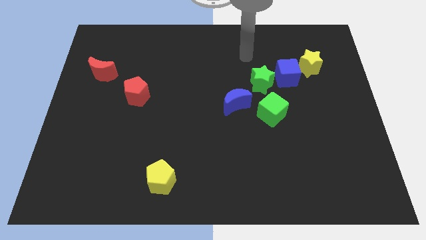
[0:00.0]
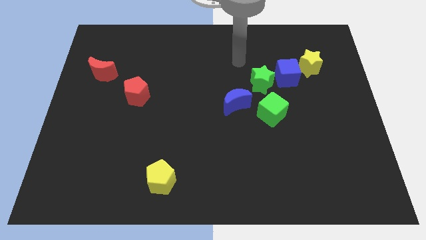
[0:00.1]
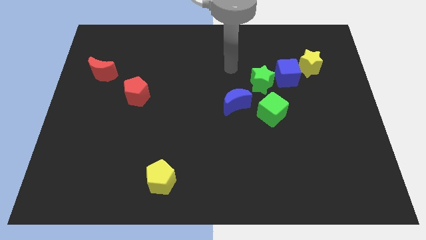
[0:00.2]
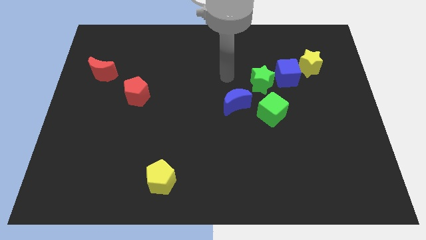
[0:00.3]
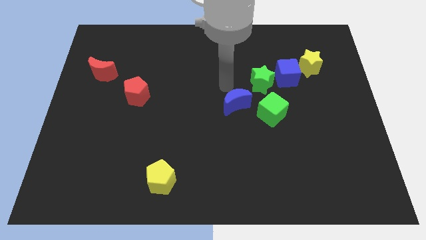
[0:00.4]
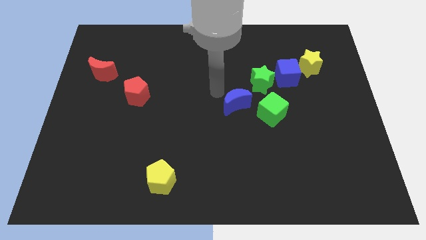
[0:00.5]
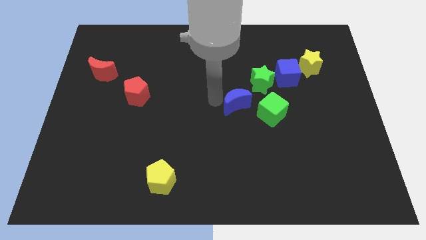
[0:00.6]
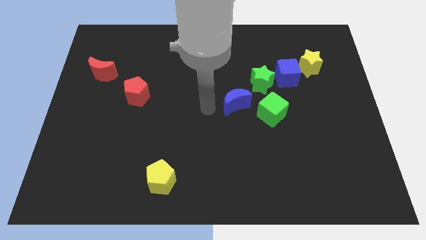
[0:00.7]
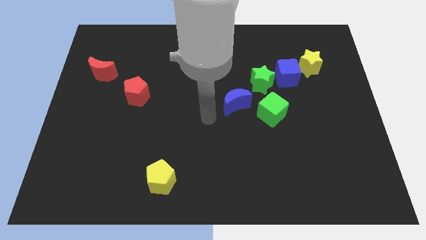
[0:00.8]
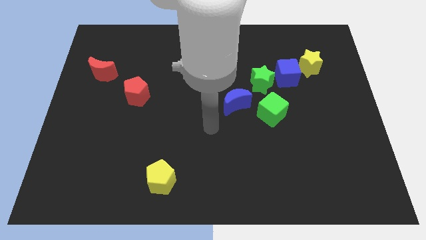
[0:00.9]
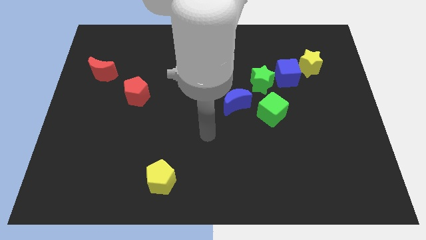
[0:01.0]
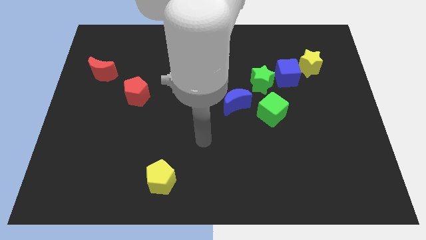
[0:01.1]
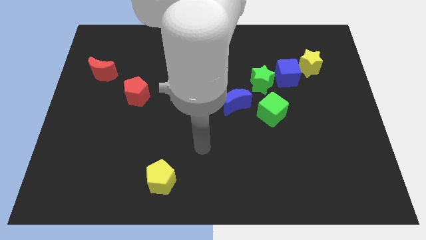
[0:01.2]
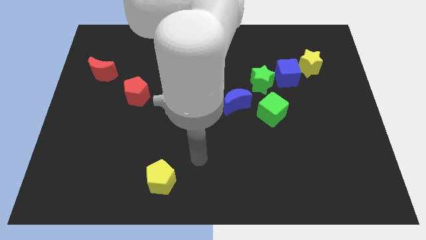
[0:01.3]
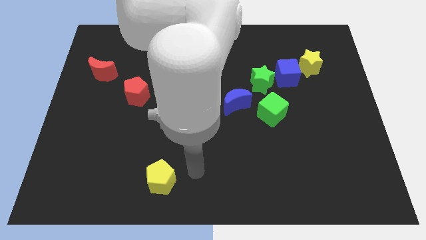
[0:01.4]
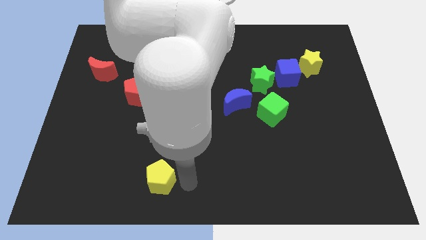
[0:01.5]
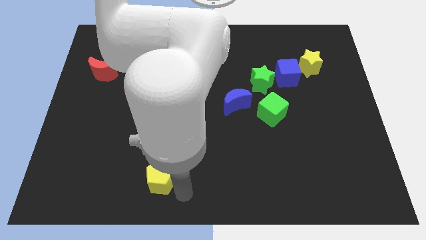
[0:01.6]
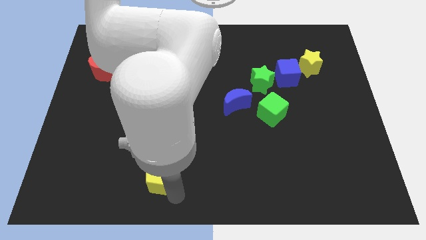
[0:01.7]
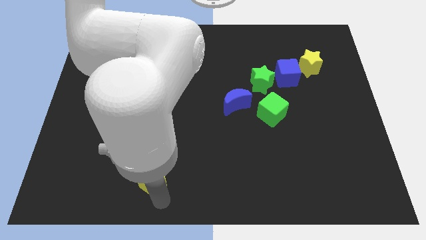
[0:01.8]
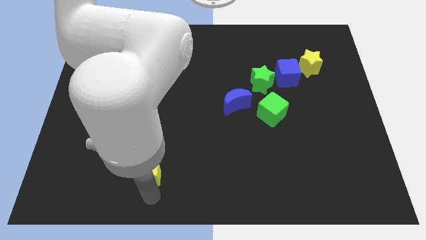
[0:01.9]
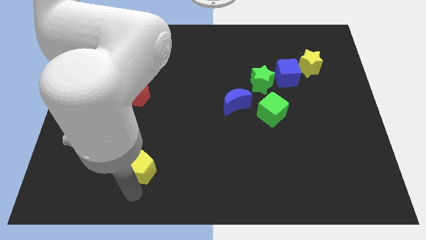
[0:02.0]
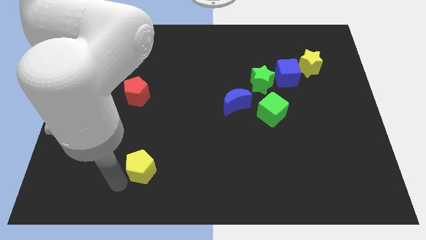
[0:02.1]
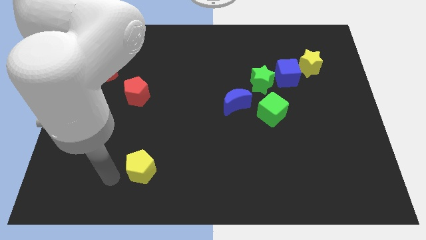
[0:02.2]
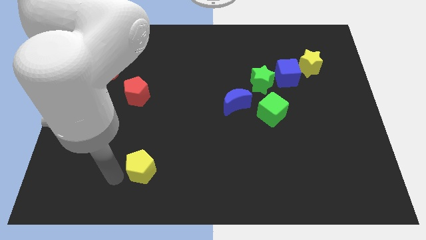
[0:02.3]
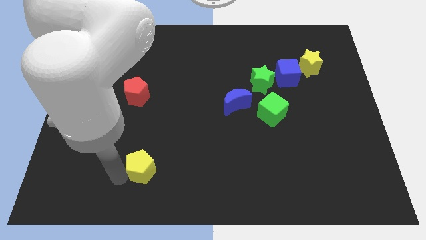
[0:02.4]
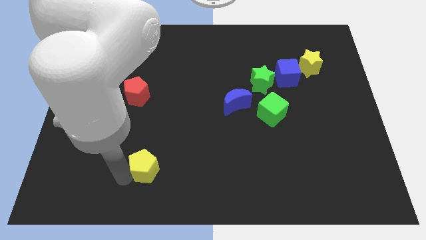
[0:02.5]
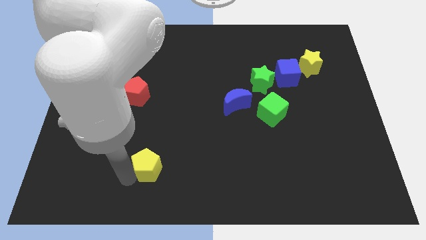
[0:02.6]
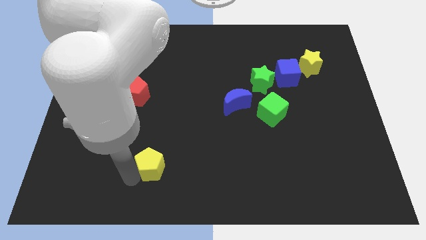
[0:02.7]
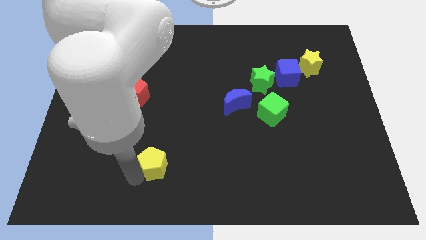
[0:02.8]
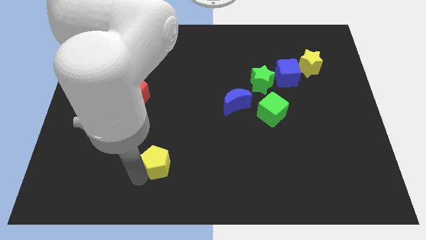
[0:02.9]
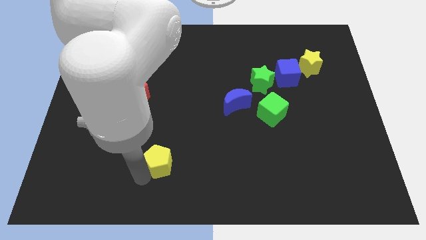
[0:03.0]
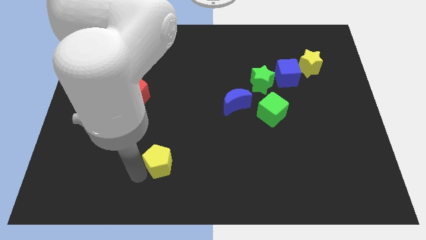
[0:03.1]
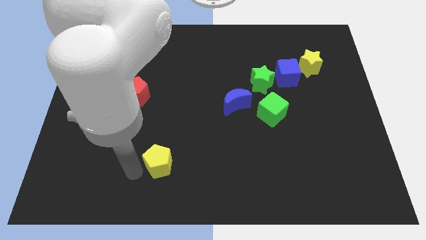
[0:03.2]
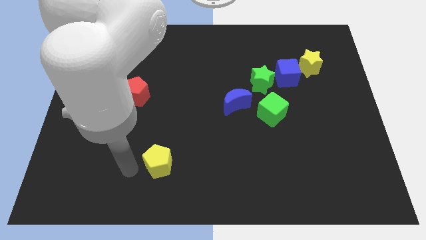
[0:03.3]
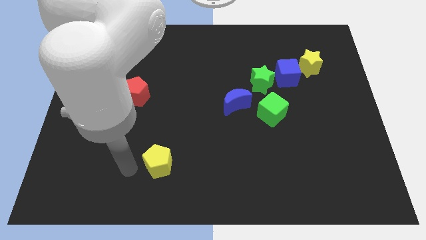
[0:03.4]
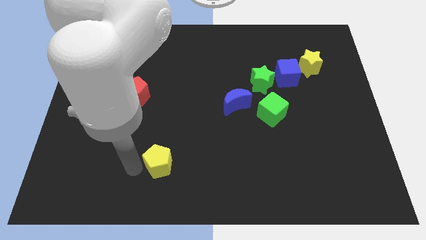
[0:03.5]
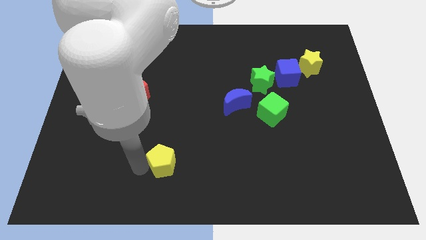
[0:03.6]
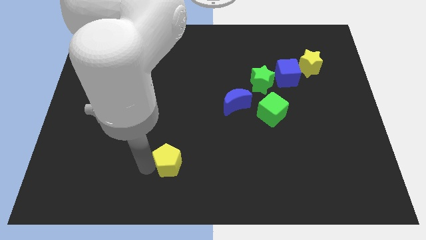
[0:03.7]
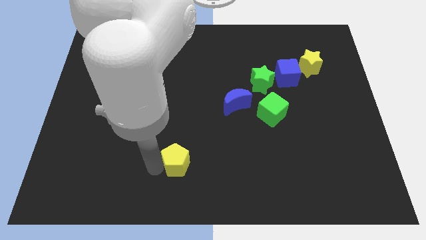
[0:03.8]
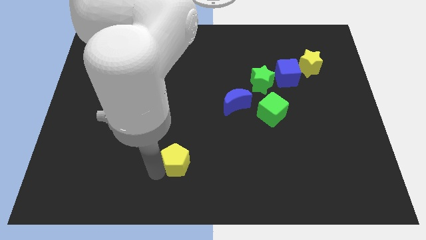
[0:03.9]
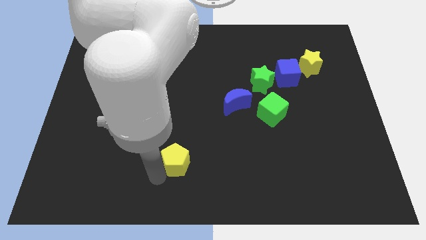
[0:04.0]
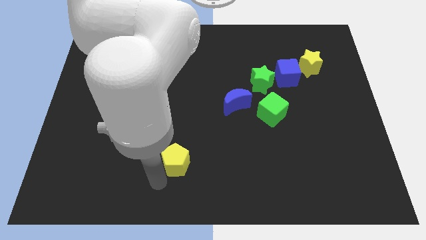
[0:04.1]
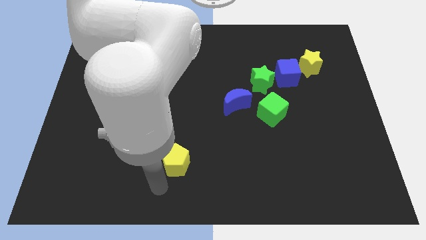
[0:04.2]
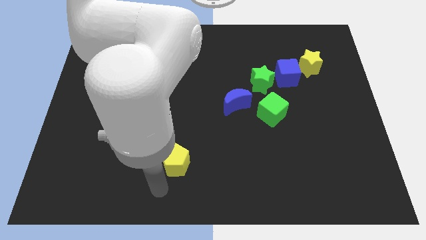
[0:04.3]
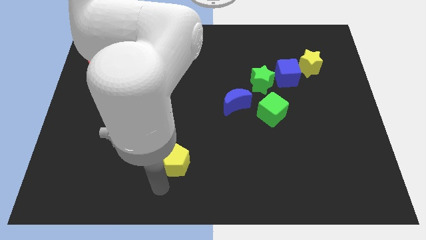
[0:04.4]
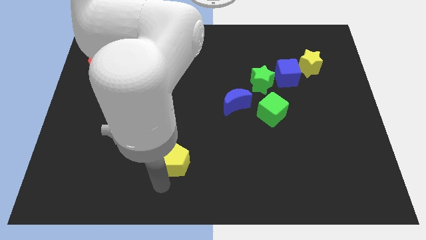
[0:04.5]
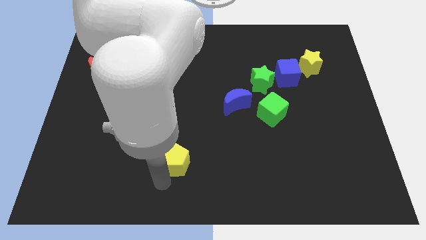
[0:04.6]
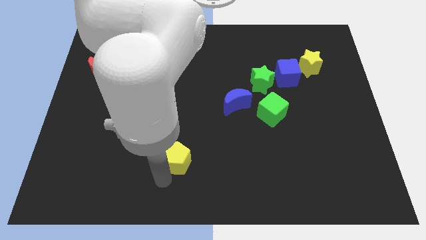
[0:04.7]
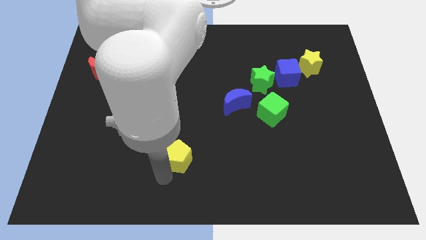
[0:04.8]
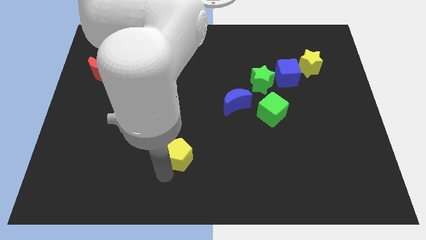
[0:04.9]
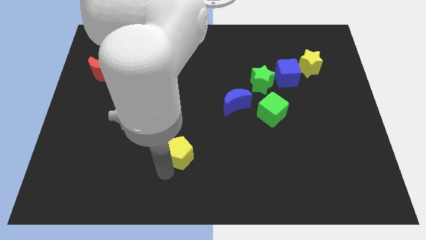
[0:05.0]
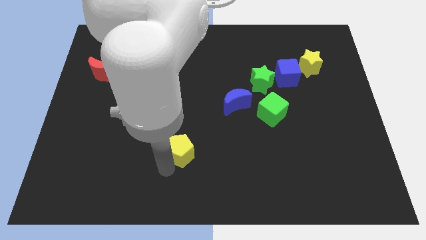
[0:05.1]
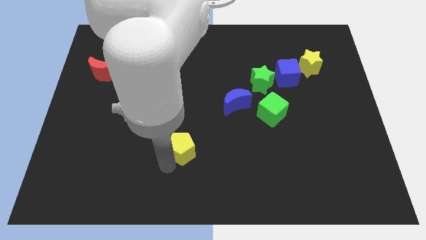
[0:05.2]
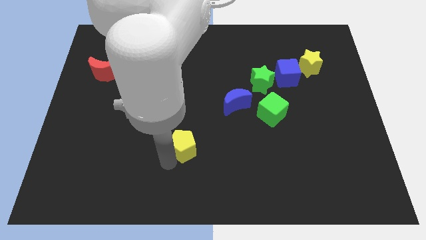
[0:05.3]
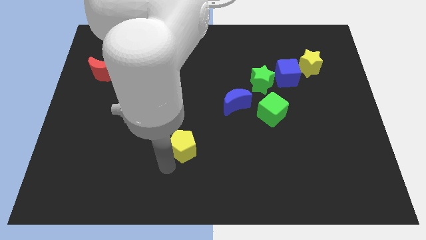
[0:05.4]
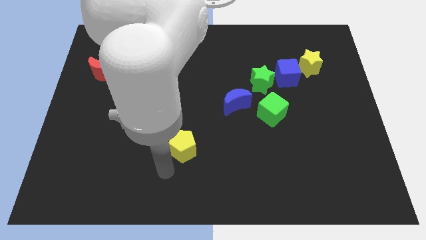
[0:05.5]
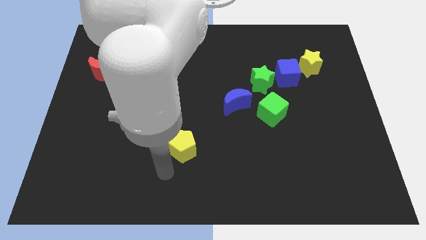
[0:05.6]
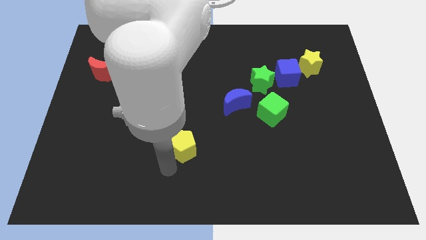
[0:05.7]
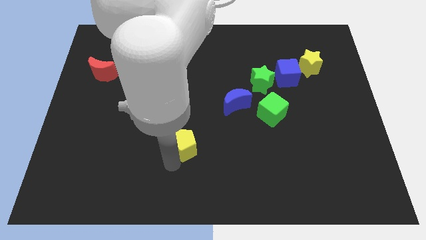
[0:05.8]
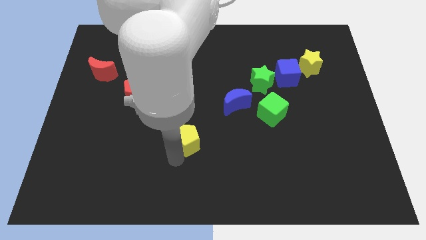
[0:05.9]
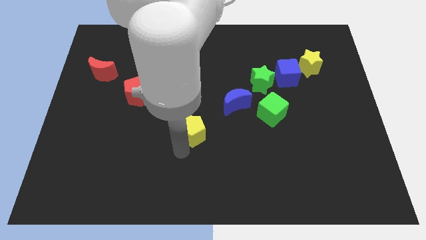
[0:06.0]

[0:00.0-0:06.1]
put the yellow pentagon to the middle of the board
